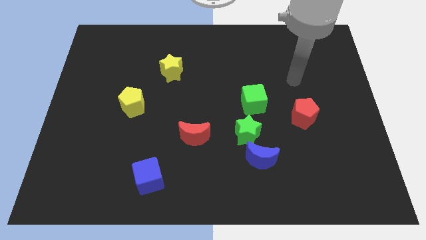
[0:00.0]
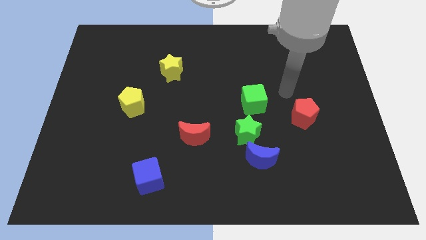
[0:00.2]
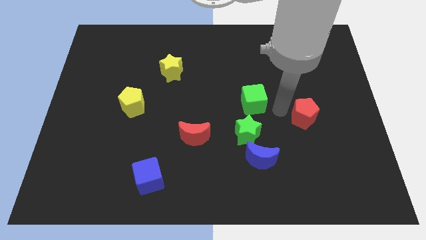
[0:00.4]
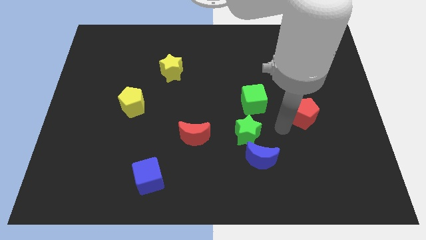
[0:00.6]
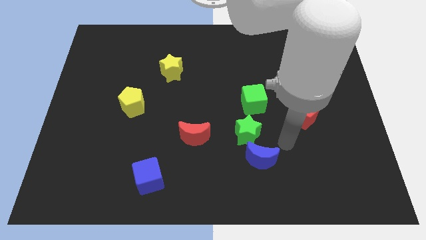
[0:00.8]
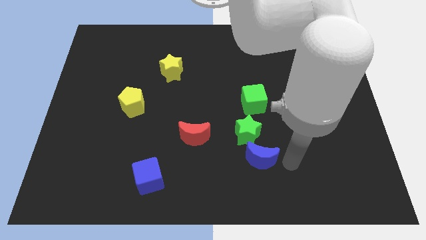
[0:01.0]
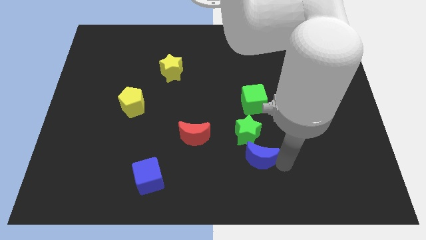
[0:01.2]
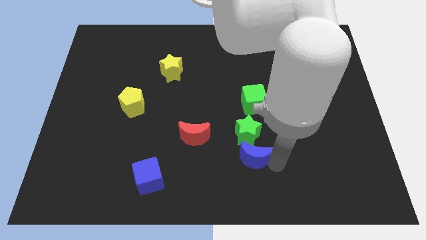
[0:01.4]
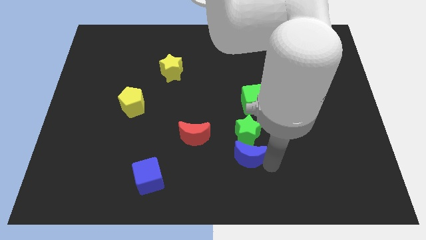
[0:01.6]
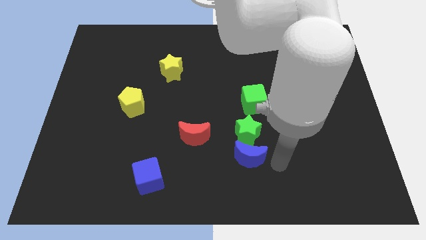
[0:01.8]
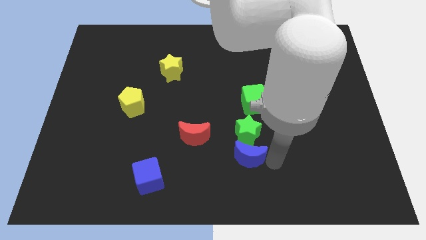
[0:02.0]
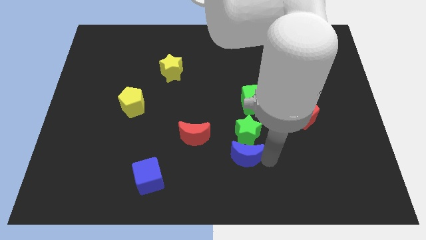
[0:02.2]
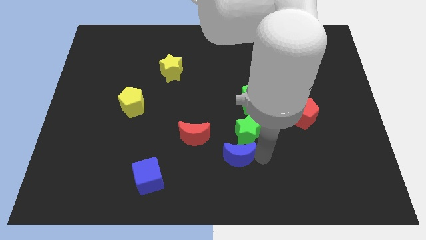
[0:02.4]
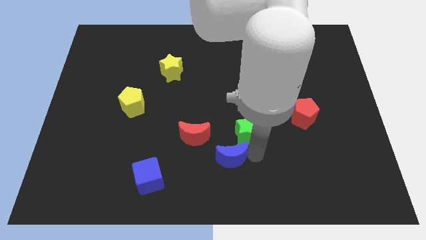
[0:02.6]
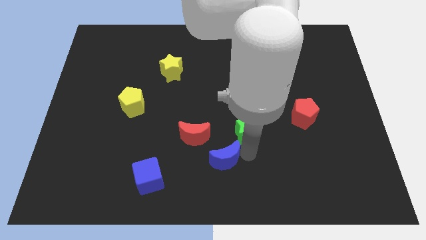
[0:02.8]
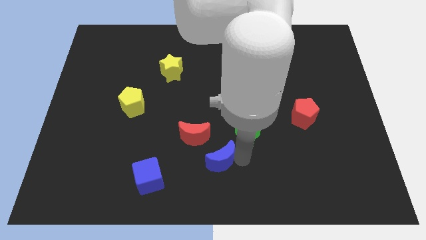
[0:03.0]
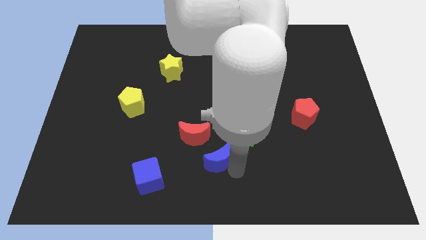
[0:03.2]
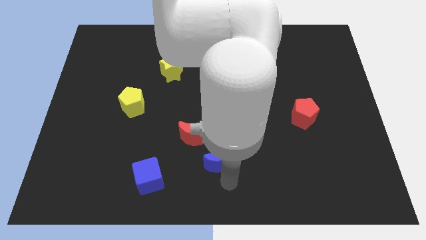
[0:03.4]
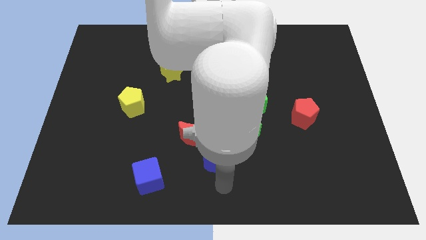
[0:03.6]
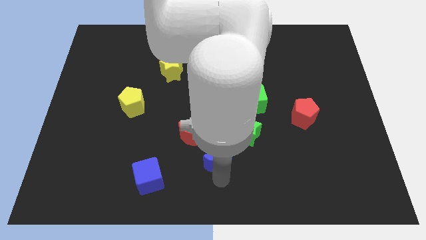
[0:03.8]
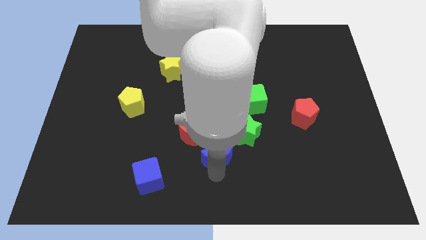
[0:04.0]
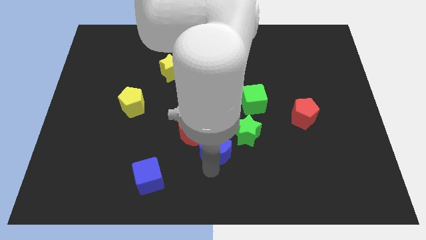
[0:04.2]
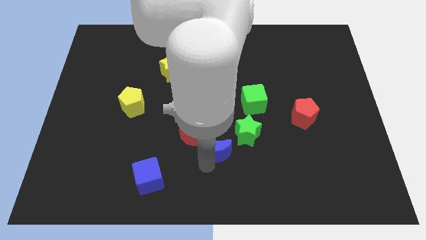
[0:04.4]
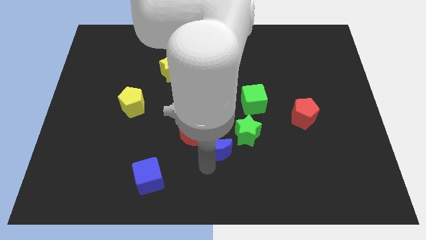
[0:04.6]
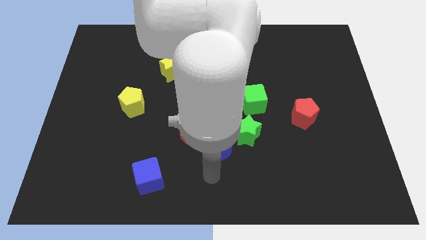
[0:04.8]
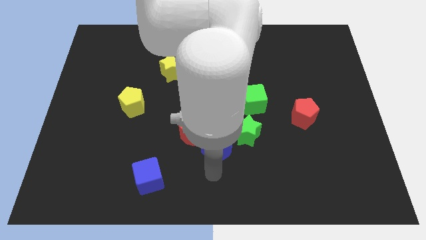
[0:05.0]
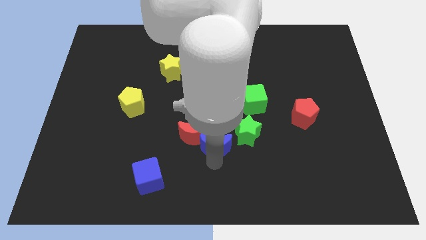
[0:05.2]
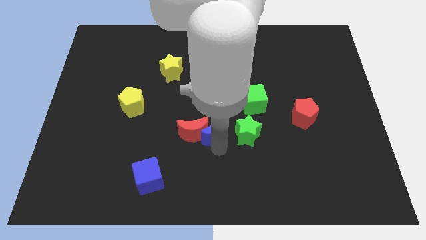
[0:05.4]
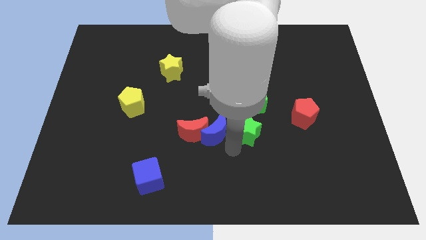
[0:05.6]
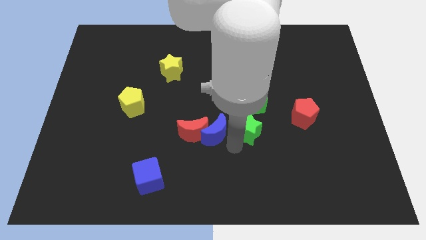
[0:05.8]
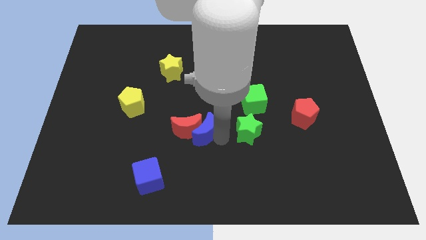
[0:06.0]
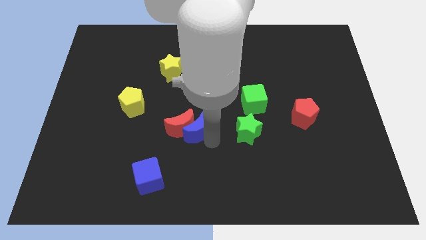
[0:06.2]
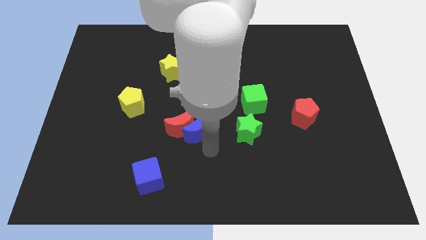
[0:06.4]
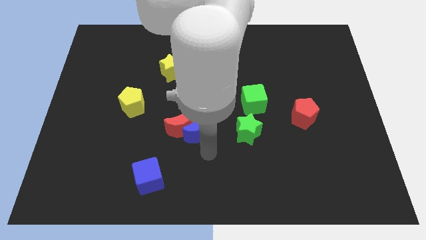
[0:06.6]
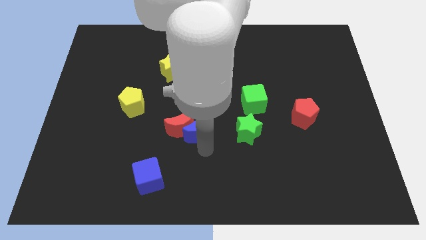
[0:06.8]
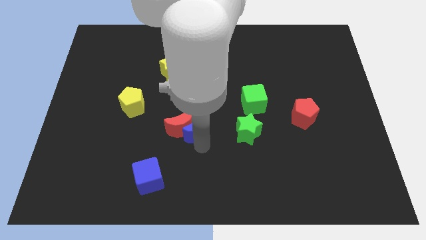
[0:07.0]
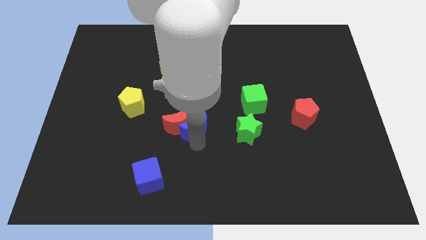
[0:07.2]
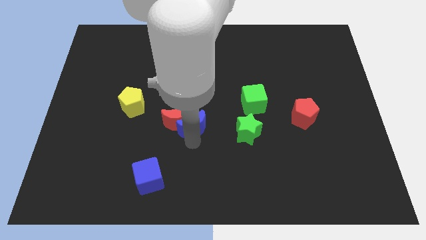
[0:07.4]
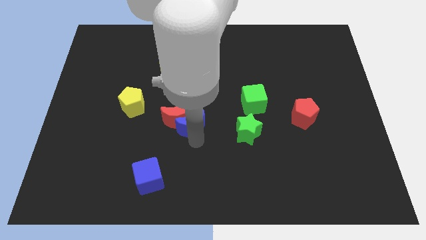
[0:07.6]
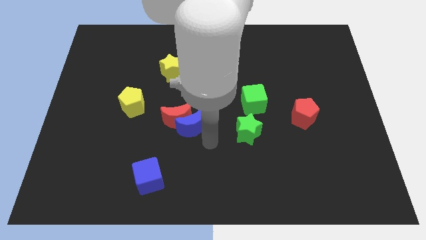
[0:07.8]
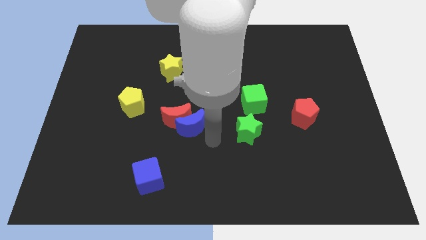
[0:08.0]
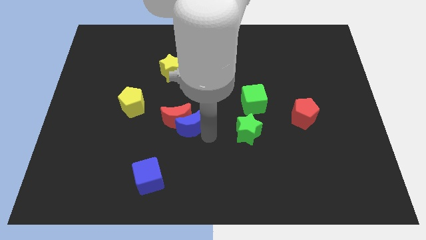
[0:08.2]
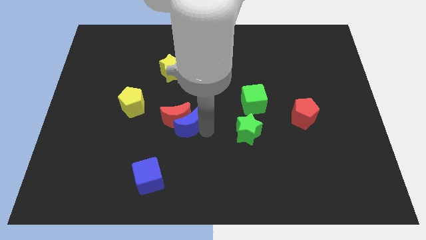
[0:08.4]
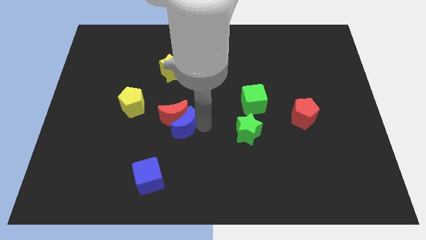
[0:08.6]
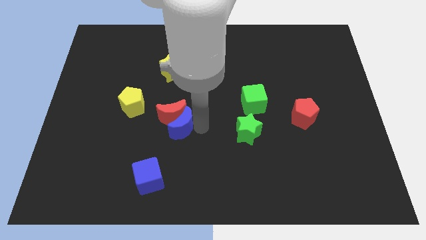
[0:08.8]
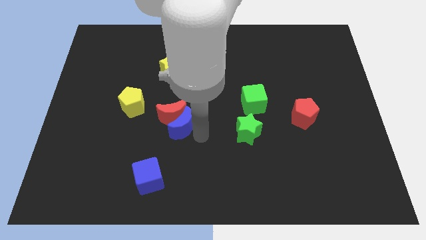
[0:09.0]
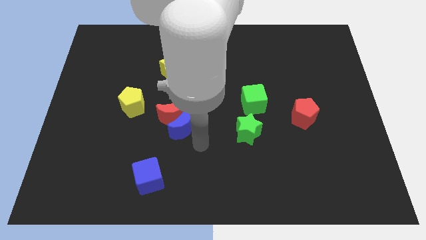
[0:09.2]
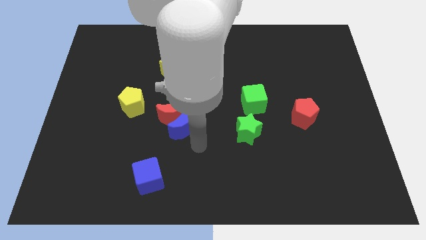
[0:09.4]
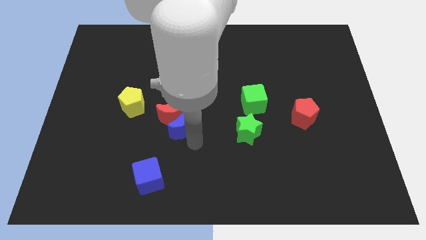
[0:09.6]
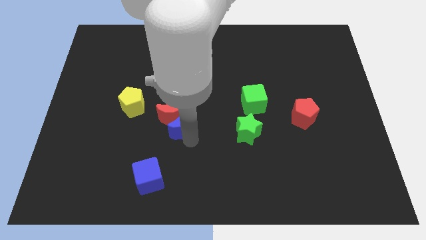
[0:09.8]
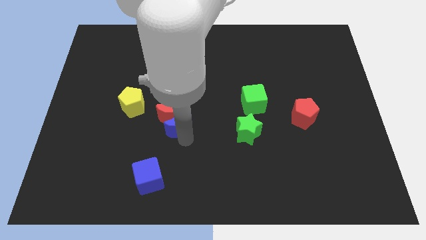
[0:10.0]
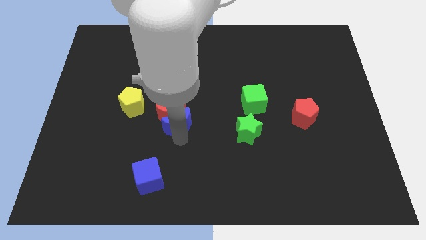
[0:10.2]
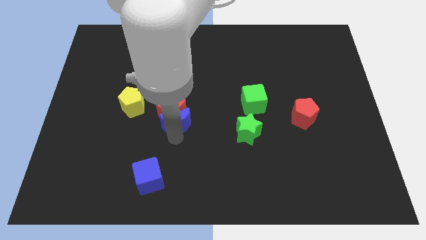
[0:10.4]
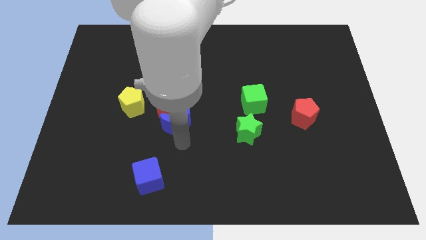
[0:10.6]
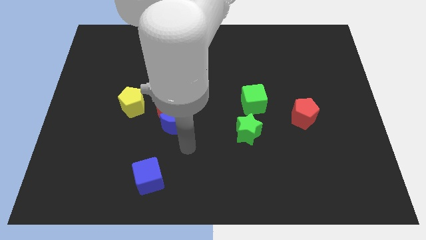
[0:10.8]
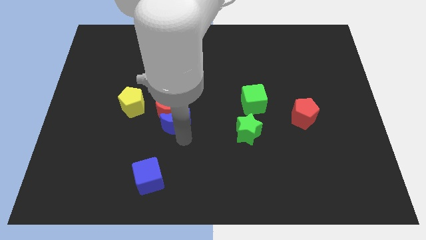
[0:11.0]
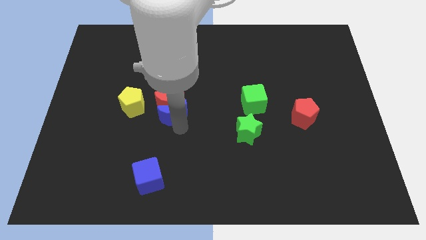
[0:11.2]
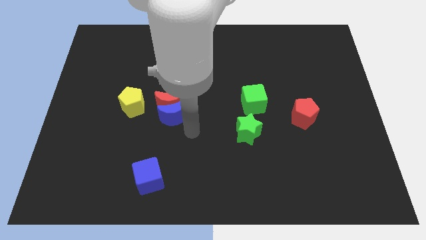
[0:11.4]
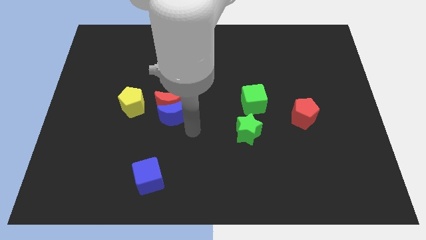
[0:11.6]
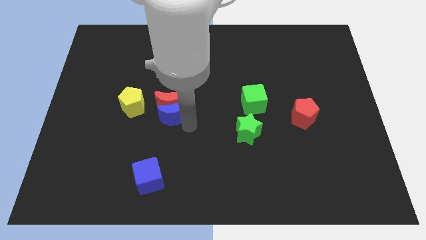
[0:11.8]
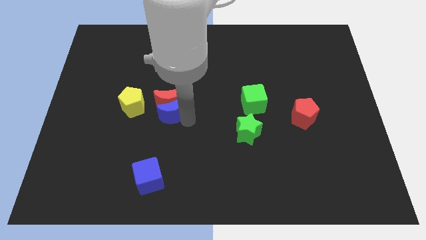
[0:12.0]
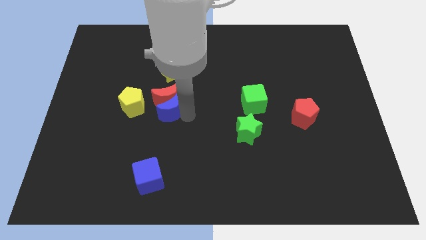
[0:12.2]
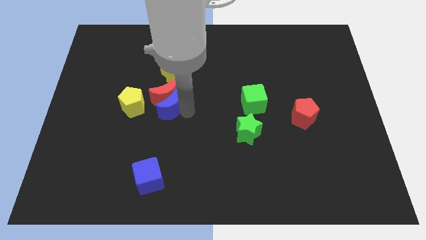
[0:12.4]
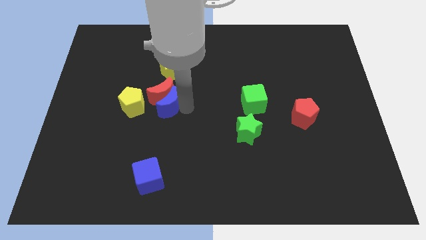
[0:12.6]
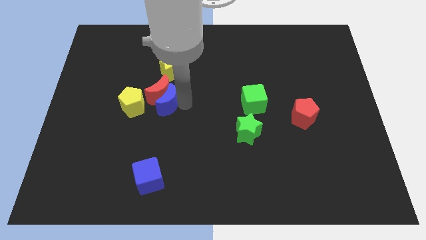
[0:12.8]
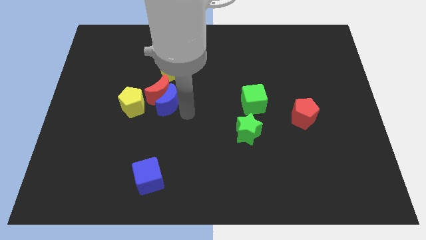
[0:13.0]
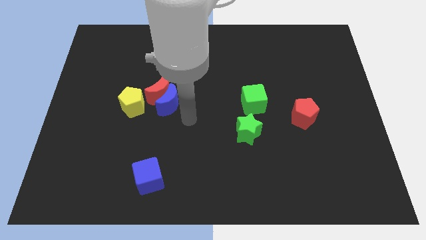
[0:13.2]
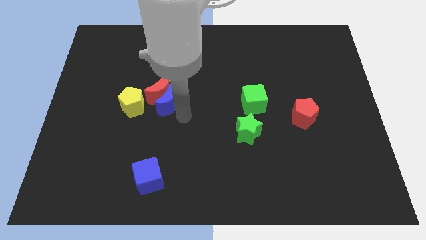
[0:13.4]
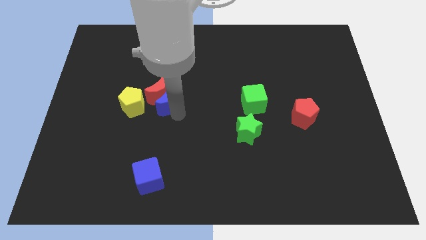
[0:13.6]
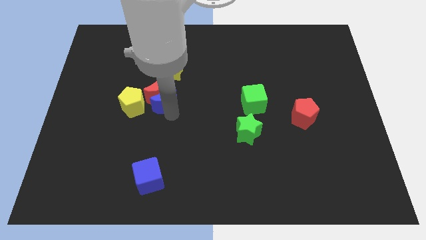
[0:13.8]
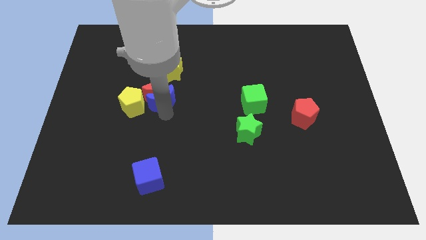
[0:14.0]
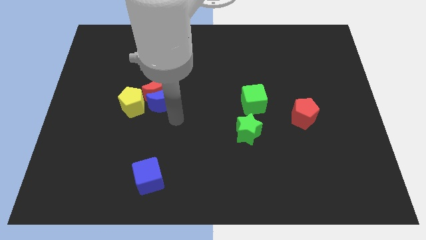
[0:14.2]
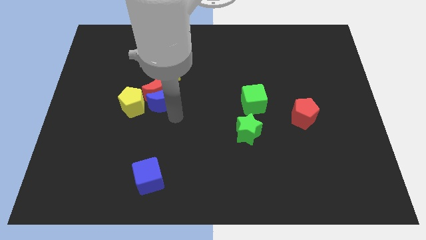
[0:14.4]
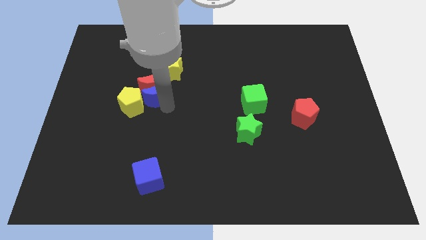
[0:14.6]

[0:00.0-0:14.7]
move the blue moon to the bottom left side of the yellow star

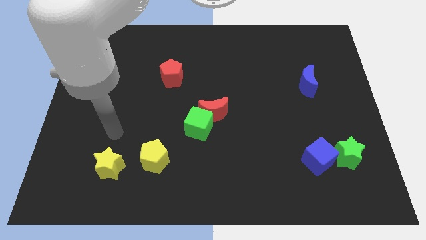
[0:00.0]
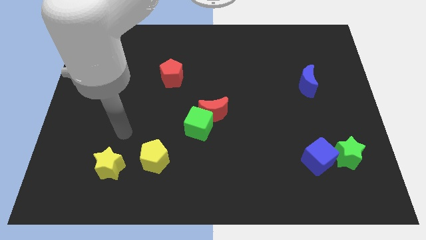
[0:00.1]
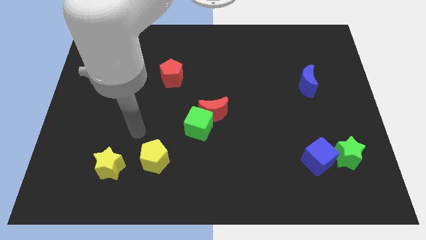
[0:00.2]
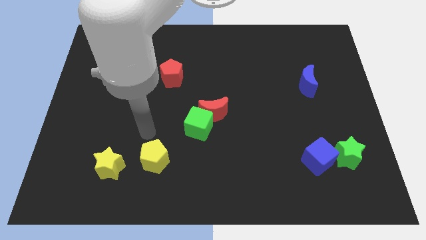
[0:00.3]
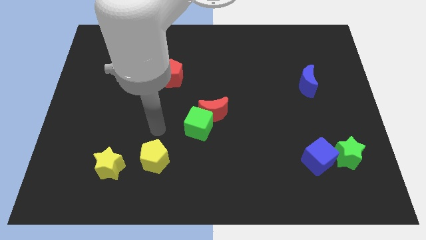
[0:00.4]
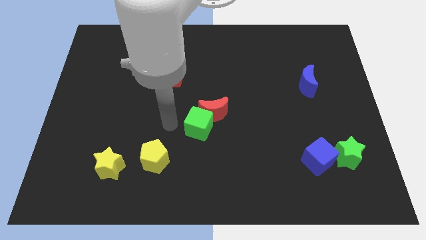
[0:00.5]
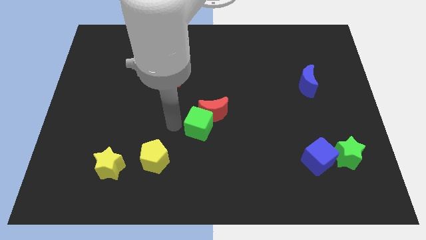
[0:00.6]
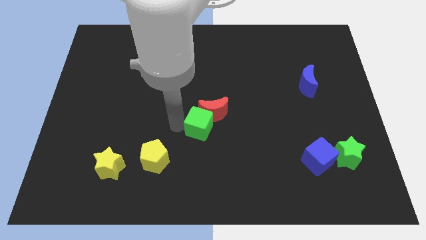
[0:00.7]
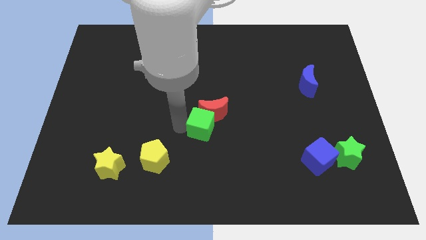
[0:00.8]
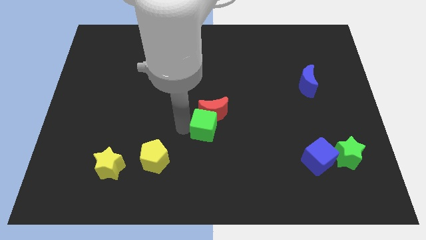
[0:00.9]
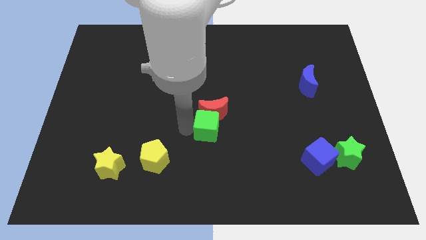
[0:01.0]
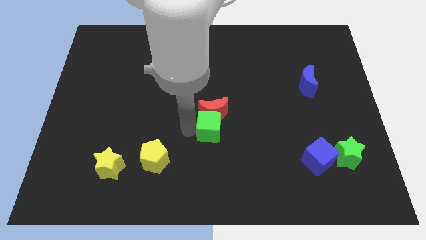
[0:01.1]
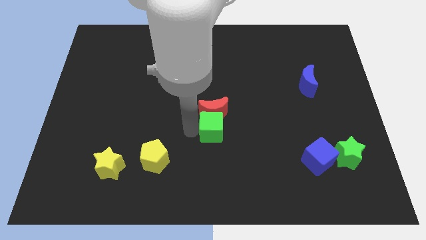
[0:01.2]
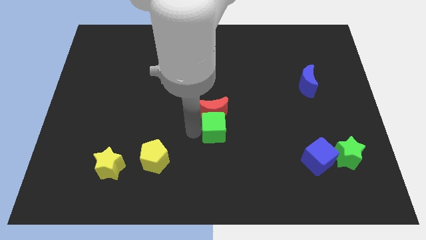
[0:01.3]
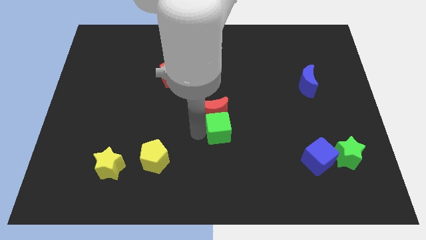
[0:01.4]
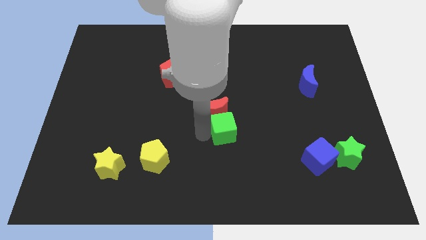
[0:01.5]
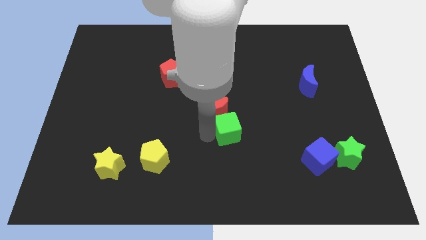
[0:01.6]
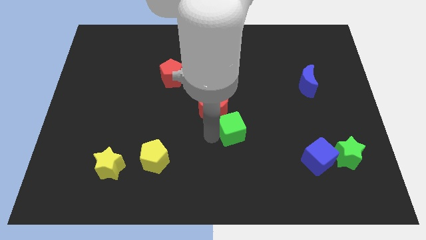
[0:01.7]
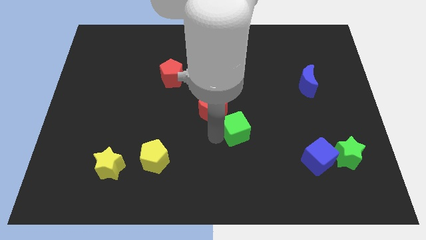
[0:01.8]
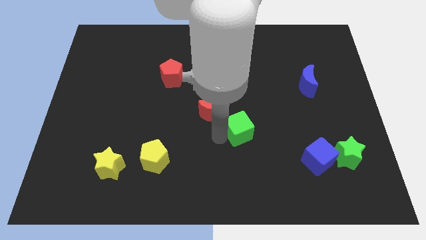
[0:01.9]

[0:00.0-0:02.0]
push the green cube just right of the red moon
